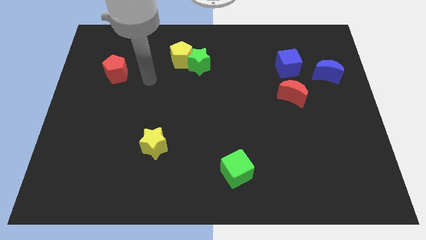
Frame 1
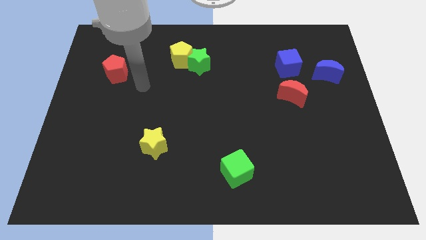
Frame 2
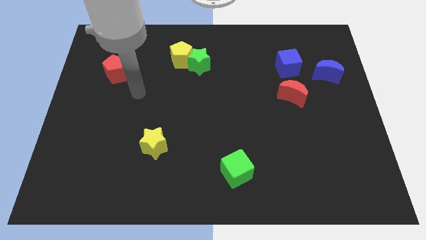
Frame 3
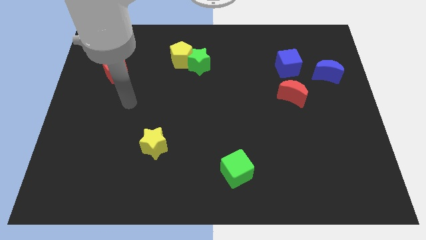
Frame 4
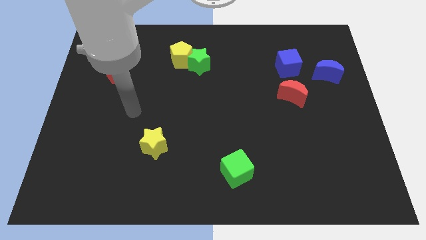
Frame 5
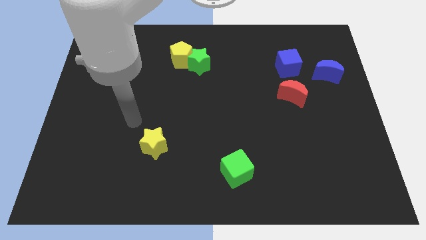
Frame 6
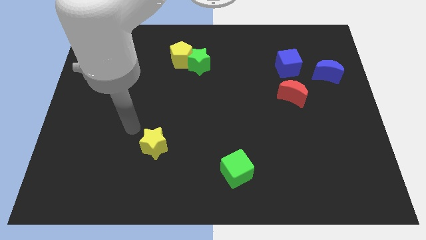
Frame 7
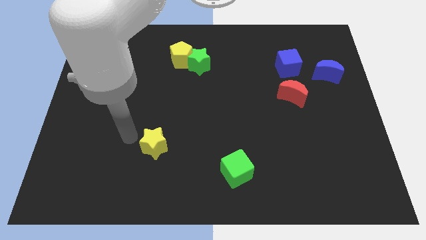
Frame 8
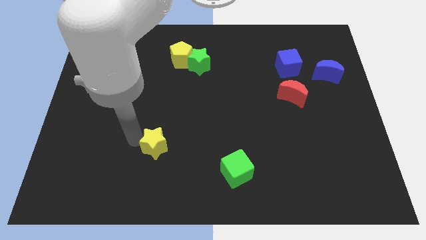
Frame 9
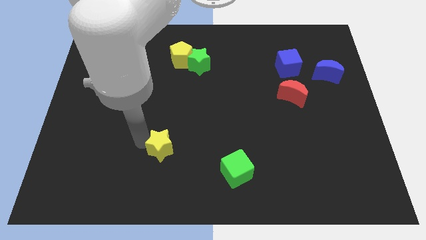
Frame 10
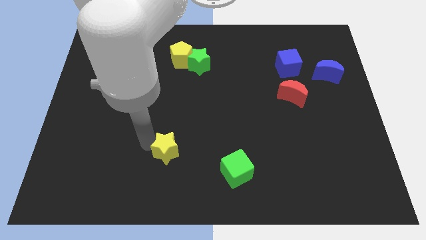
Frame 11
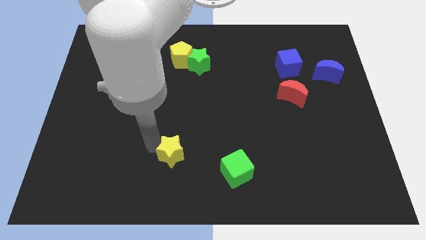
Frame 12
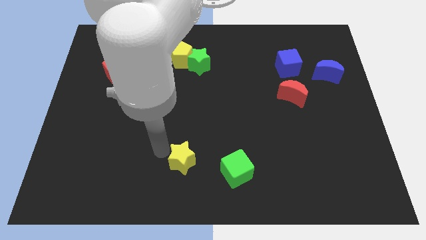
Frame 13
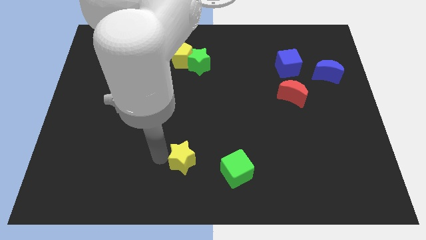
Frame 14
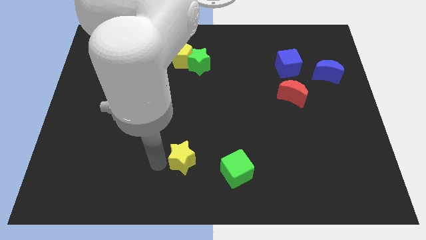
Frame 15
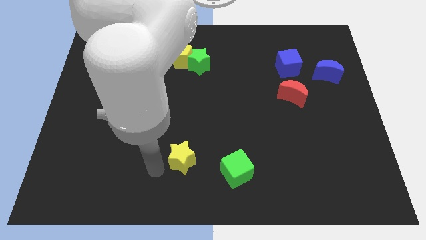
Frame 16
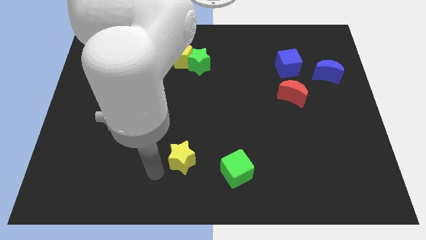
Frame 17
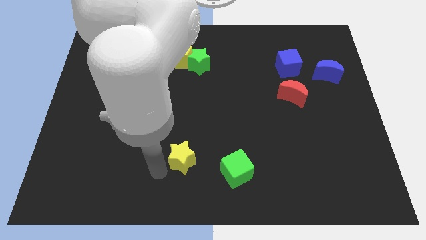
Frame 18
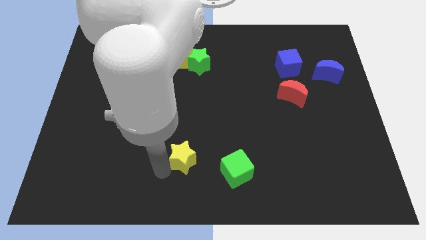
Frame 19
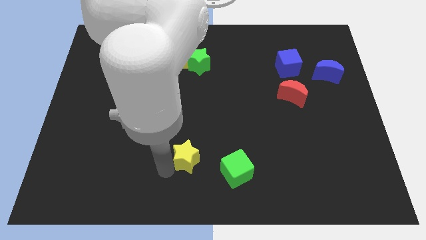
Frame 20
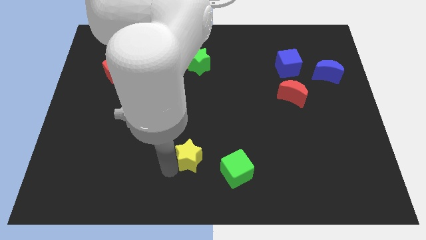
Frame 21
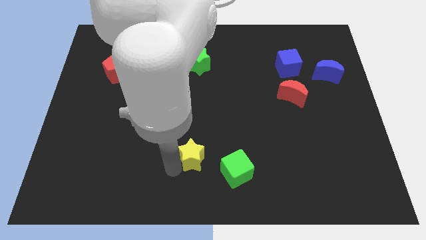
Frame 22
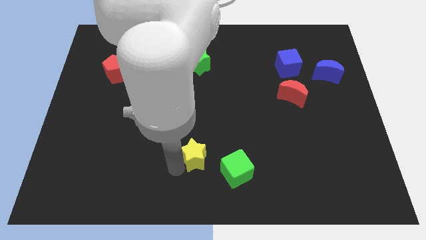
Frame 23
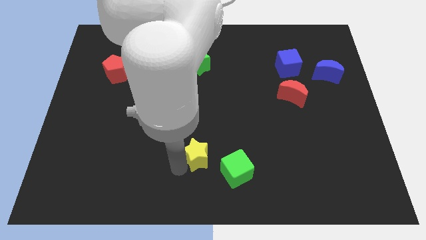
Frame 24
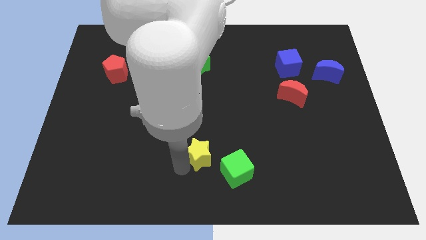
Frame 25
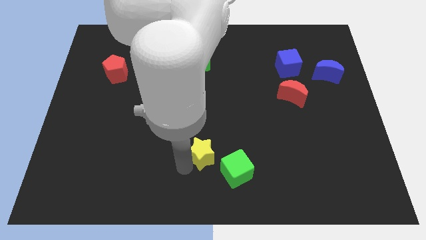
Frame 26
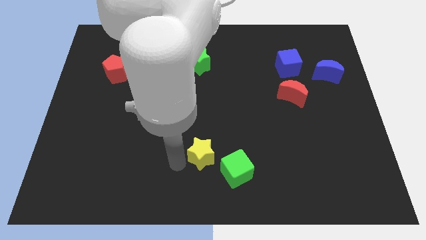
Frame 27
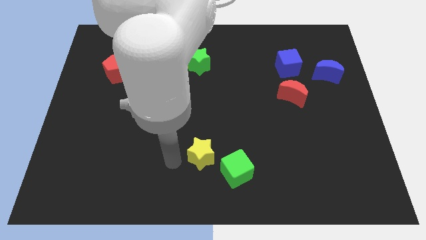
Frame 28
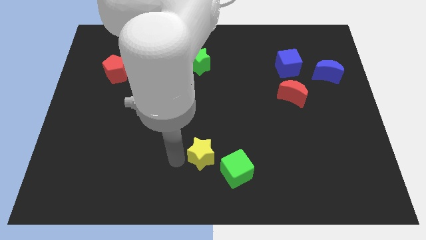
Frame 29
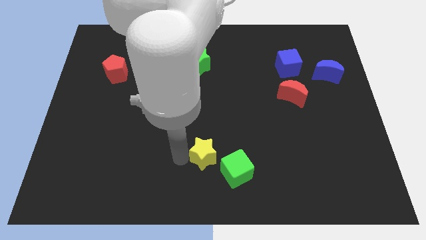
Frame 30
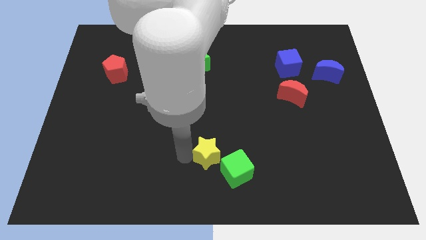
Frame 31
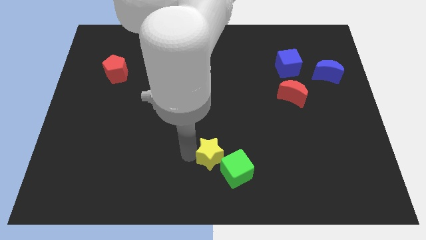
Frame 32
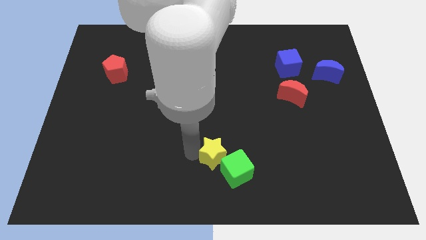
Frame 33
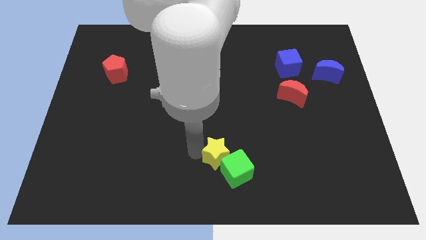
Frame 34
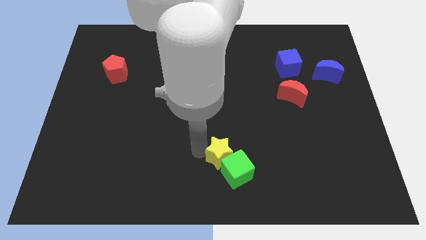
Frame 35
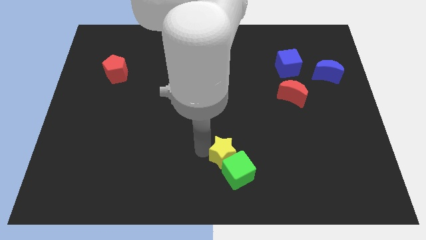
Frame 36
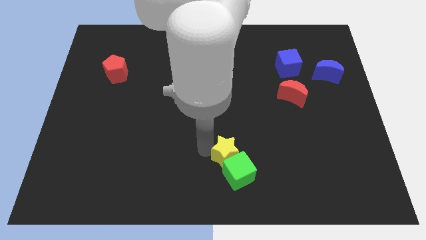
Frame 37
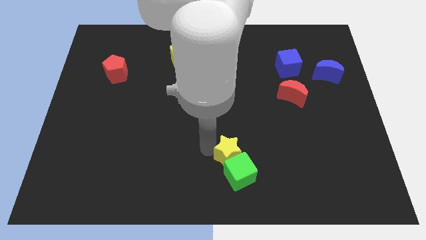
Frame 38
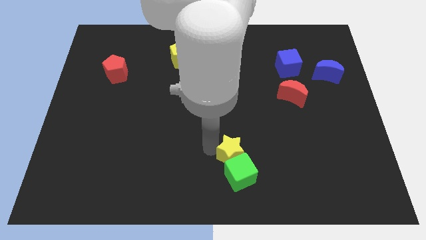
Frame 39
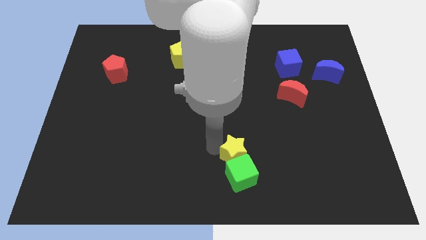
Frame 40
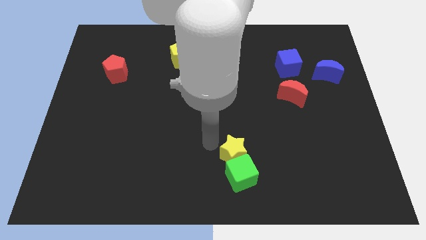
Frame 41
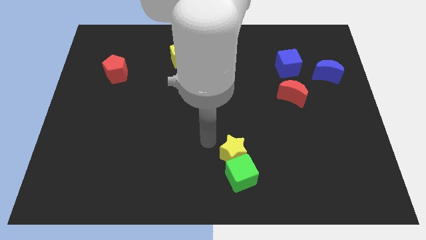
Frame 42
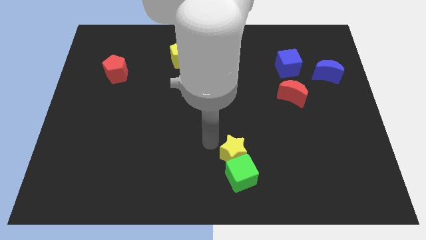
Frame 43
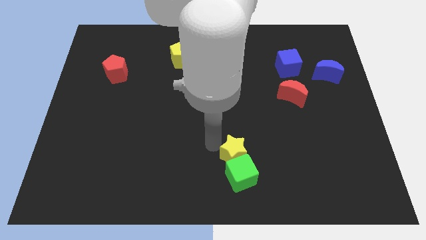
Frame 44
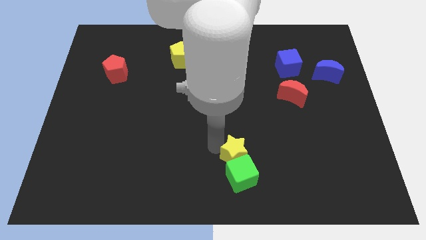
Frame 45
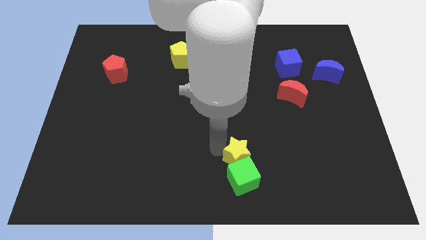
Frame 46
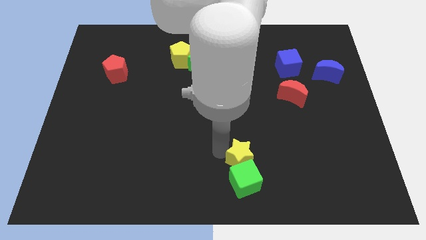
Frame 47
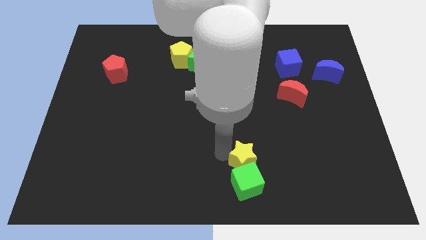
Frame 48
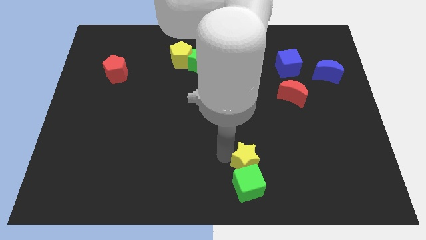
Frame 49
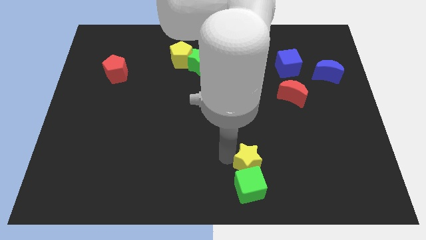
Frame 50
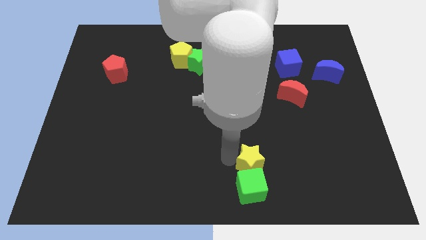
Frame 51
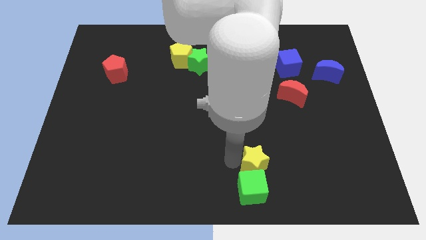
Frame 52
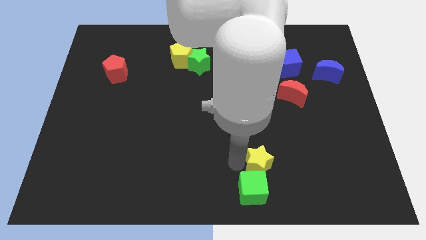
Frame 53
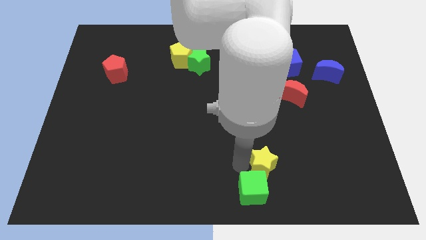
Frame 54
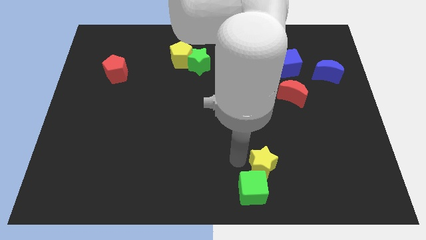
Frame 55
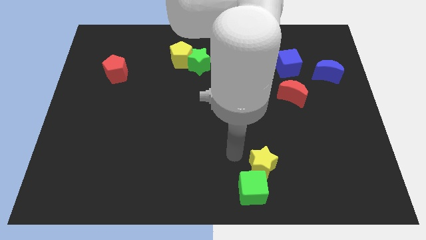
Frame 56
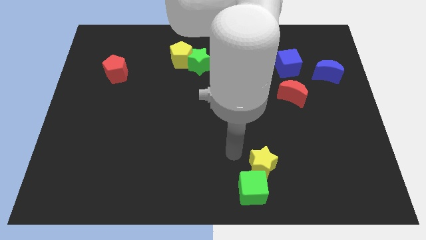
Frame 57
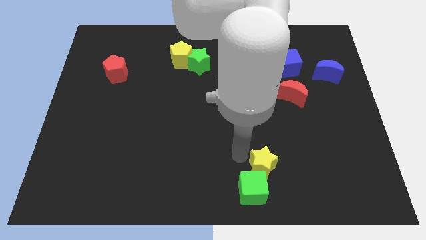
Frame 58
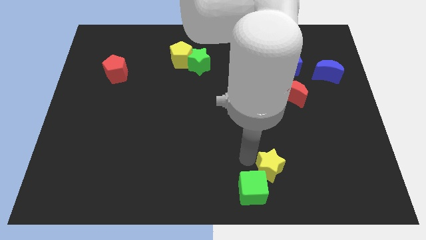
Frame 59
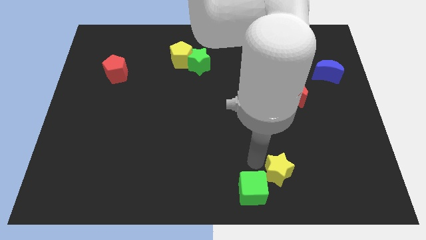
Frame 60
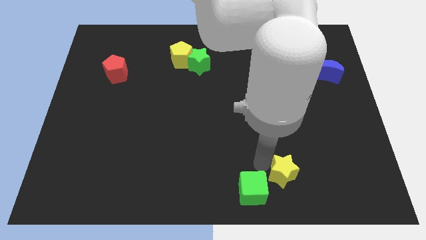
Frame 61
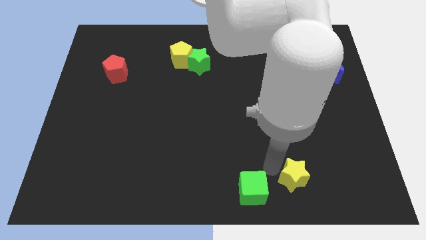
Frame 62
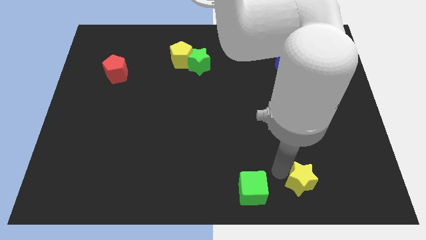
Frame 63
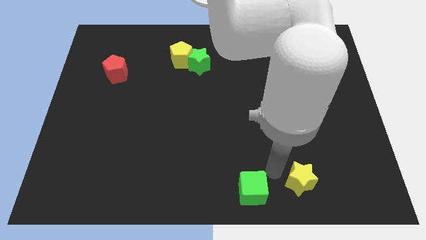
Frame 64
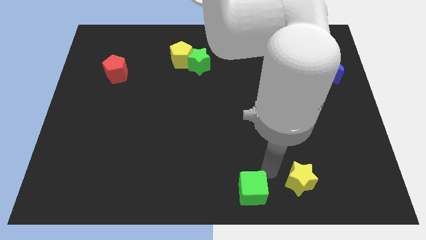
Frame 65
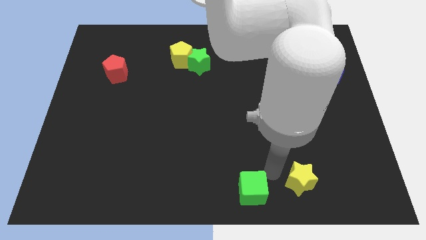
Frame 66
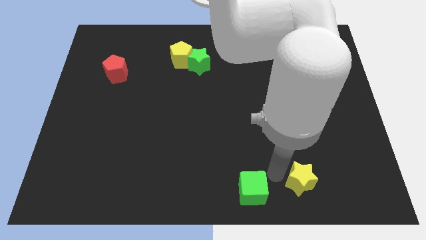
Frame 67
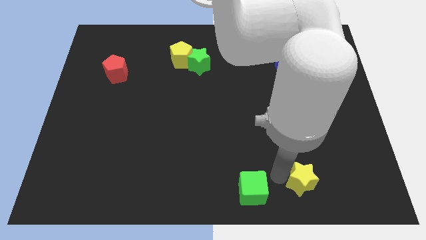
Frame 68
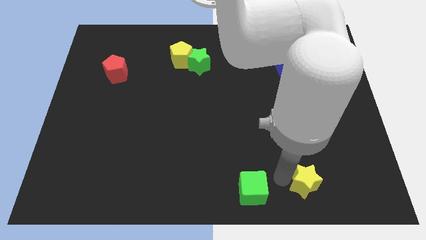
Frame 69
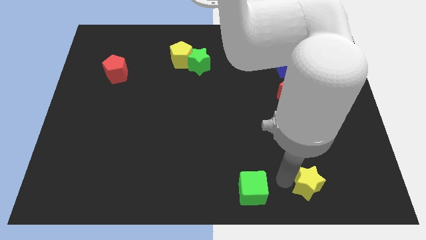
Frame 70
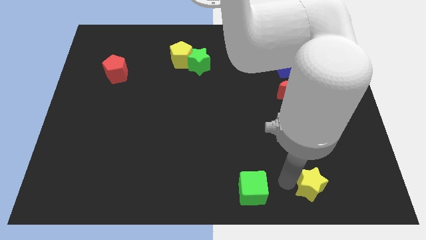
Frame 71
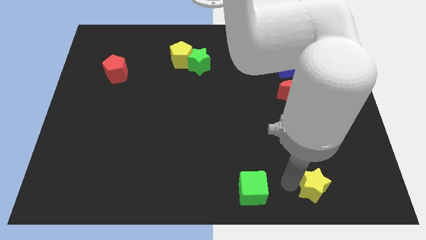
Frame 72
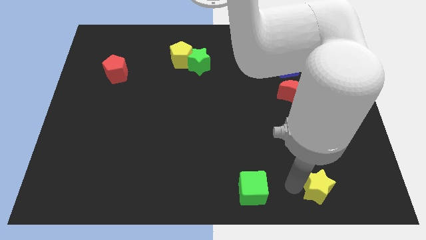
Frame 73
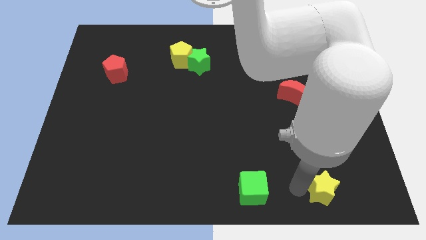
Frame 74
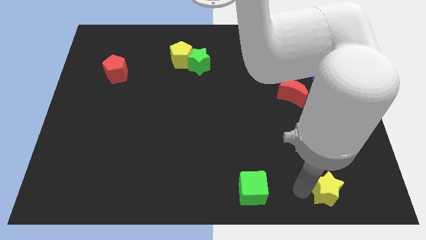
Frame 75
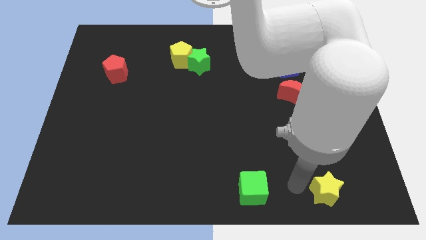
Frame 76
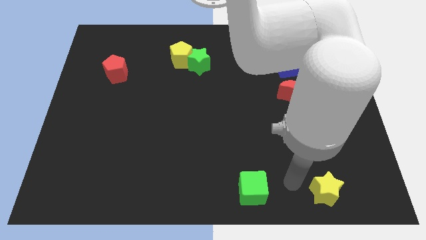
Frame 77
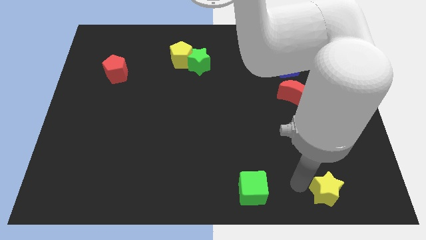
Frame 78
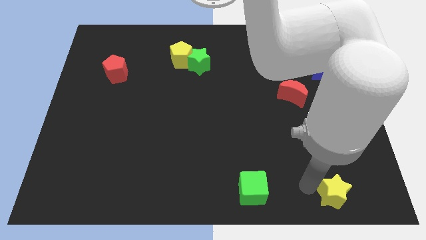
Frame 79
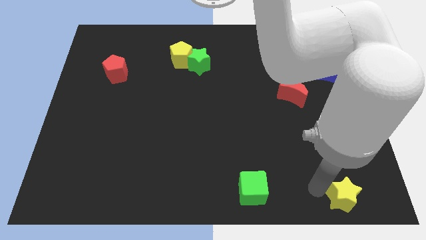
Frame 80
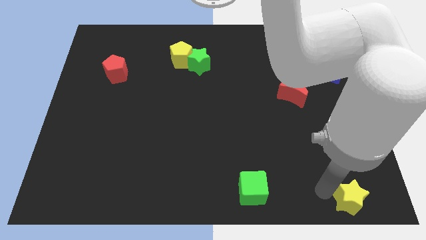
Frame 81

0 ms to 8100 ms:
slide the yellow star to the bottom right
